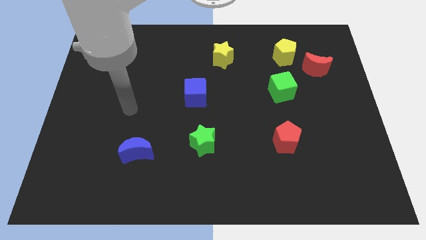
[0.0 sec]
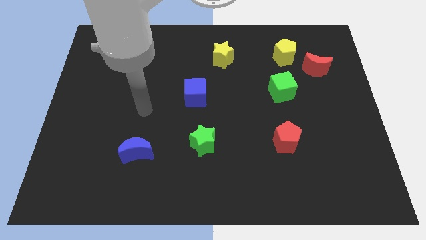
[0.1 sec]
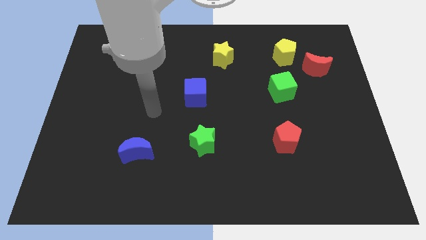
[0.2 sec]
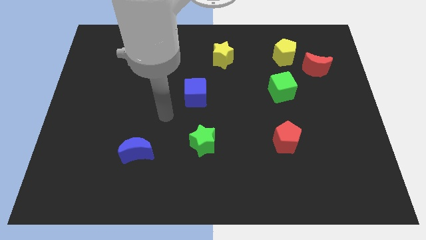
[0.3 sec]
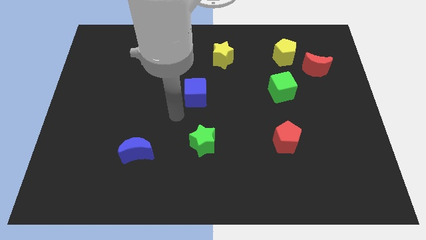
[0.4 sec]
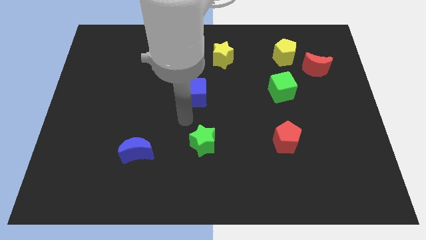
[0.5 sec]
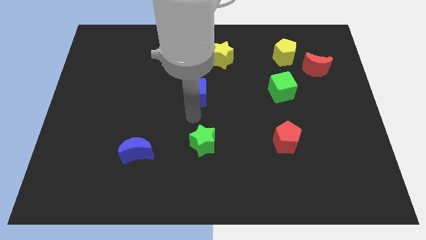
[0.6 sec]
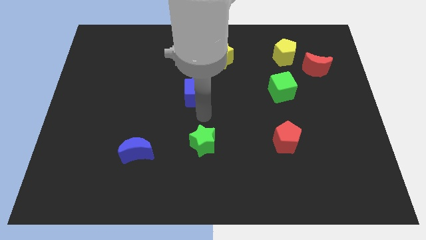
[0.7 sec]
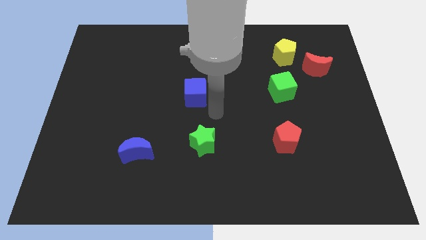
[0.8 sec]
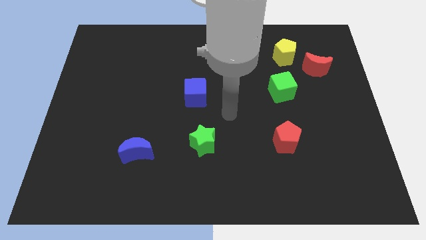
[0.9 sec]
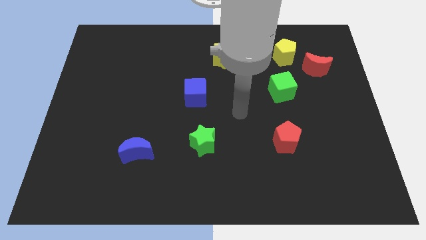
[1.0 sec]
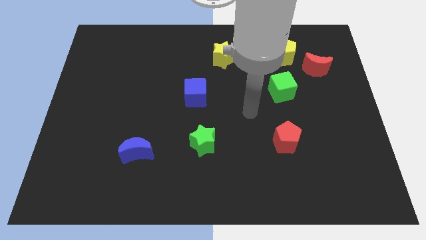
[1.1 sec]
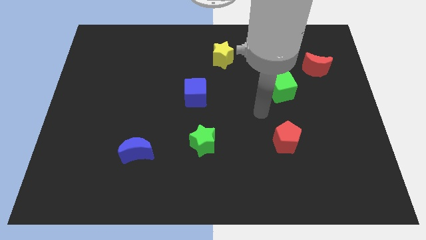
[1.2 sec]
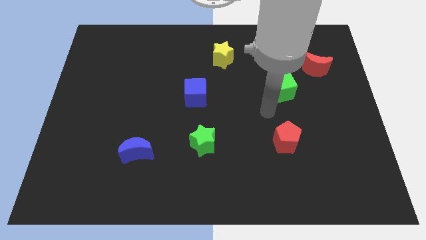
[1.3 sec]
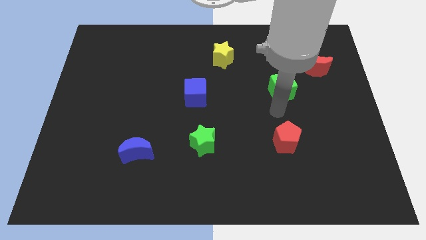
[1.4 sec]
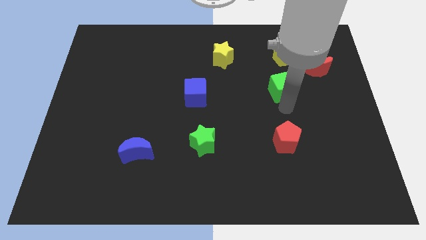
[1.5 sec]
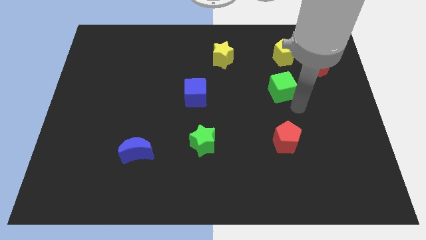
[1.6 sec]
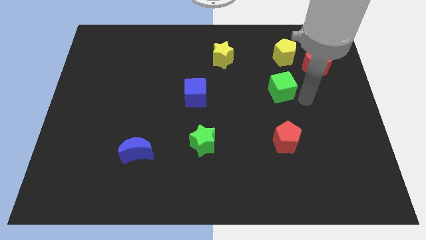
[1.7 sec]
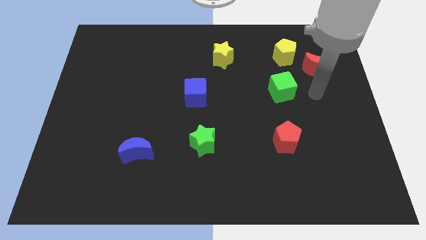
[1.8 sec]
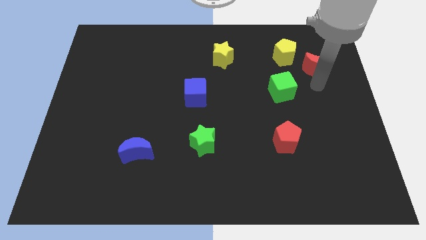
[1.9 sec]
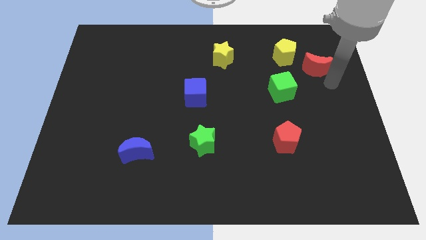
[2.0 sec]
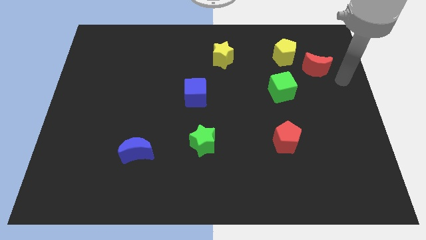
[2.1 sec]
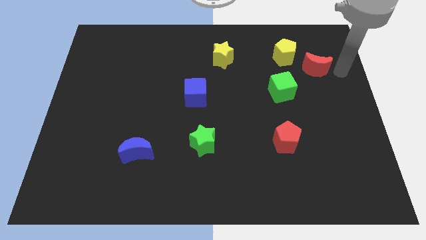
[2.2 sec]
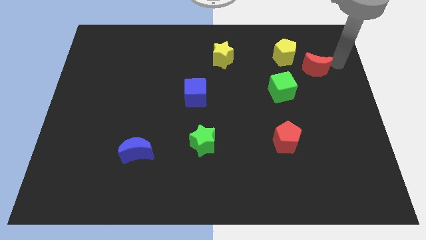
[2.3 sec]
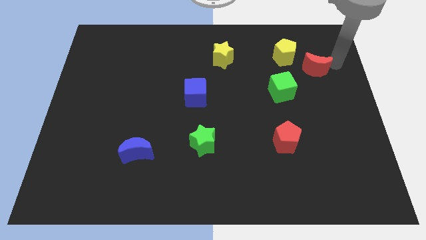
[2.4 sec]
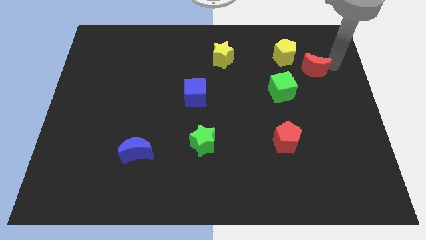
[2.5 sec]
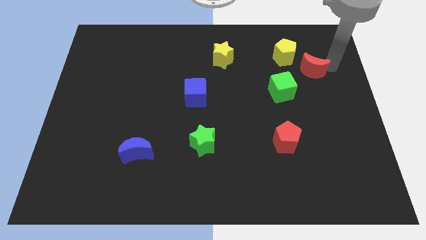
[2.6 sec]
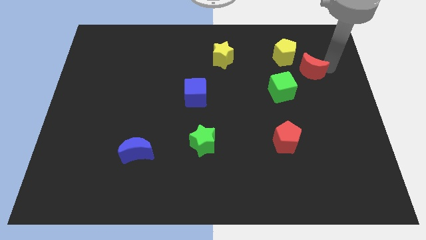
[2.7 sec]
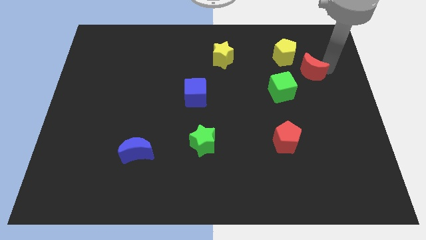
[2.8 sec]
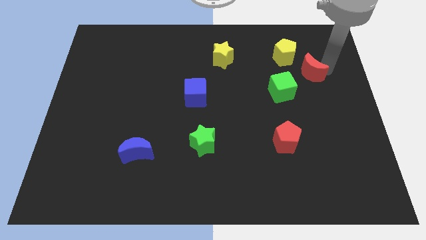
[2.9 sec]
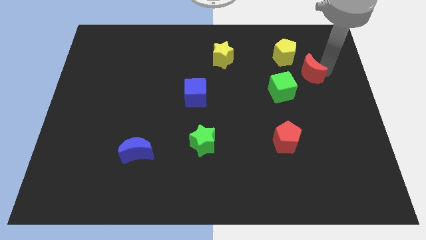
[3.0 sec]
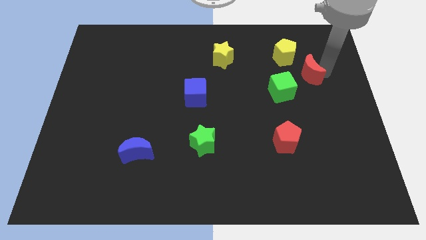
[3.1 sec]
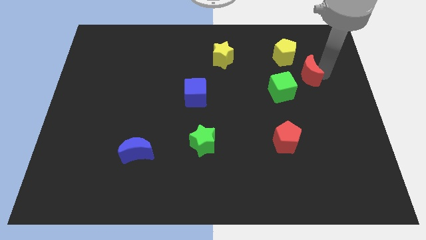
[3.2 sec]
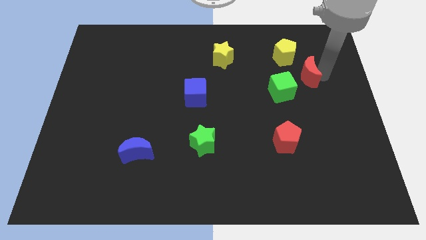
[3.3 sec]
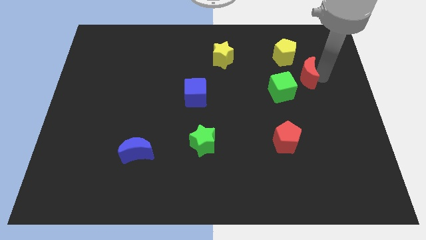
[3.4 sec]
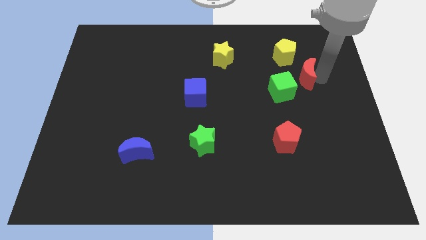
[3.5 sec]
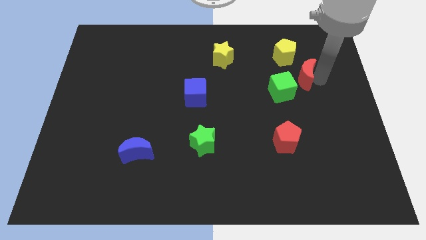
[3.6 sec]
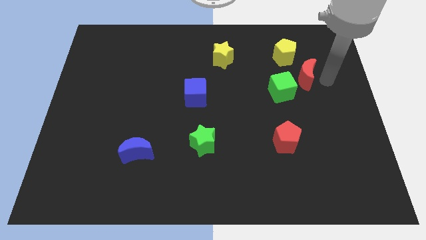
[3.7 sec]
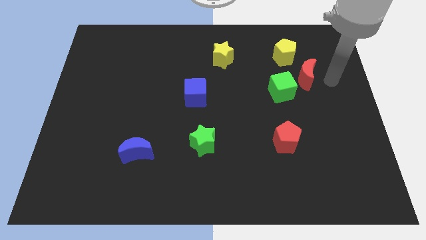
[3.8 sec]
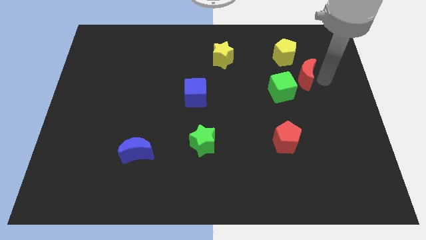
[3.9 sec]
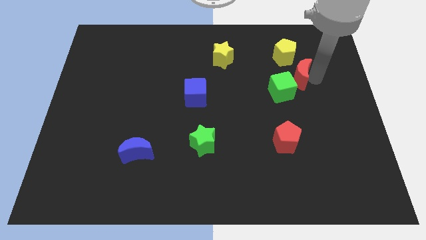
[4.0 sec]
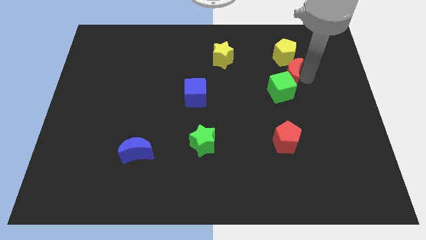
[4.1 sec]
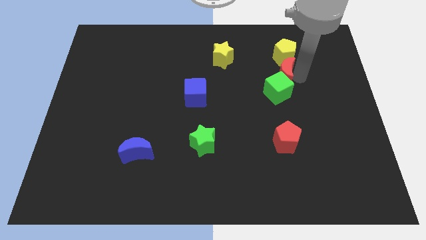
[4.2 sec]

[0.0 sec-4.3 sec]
slightly move the red moon left

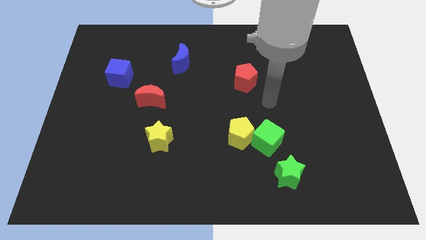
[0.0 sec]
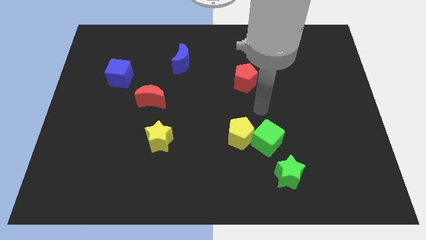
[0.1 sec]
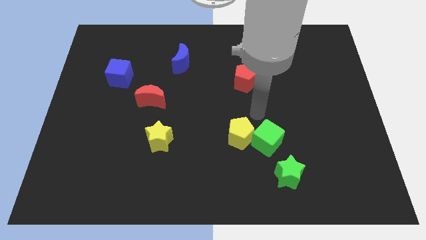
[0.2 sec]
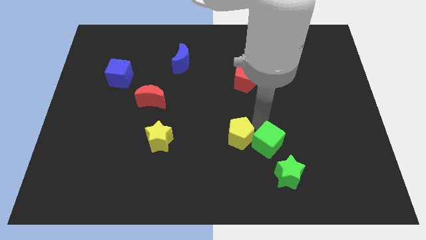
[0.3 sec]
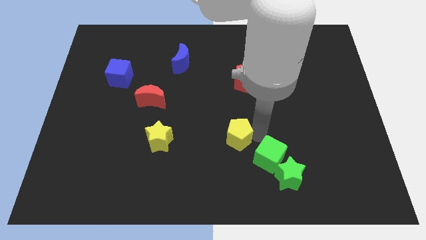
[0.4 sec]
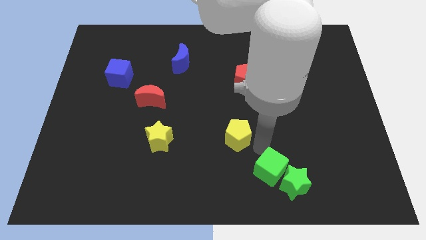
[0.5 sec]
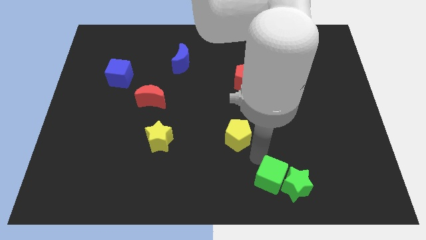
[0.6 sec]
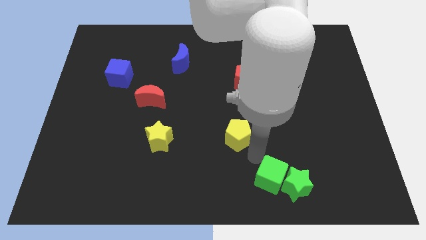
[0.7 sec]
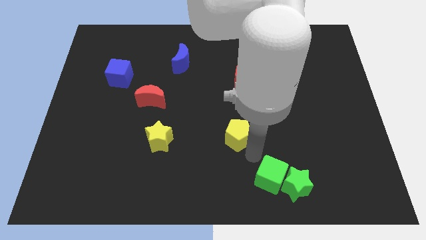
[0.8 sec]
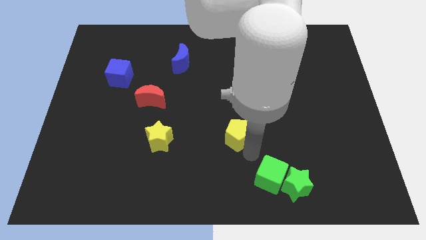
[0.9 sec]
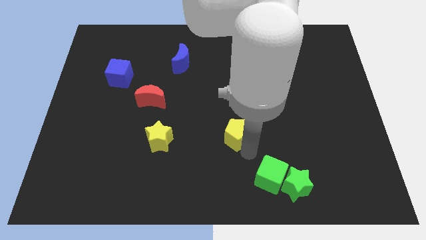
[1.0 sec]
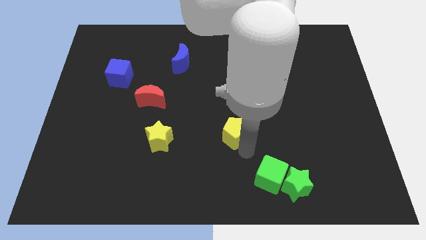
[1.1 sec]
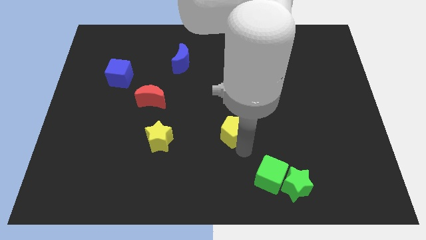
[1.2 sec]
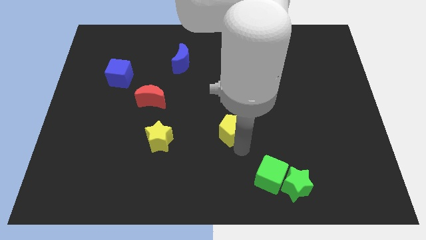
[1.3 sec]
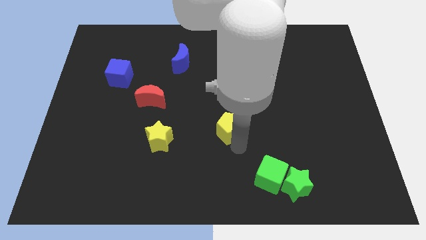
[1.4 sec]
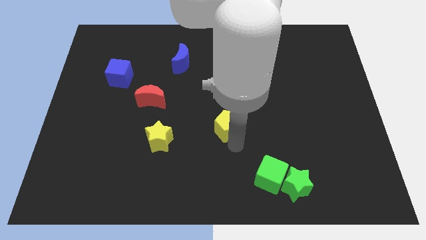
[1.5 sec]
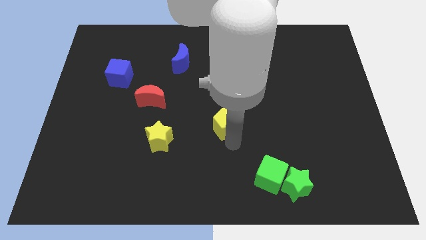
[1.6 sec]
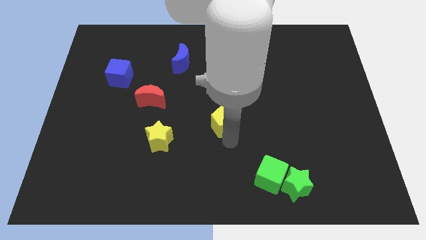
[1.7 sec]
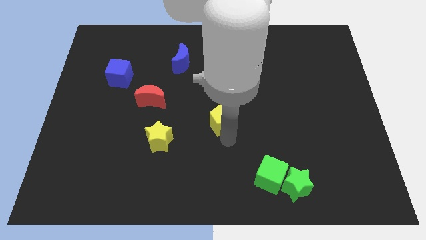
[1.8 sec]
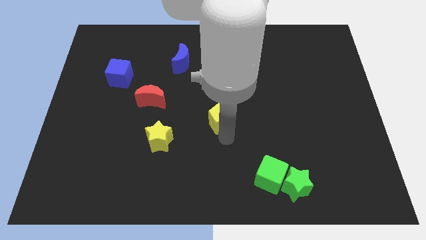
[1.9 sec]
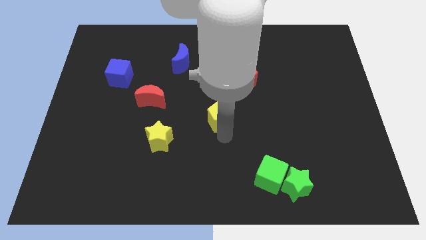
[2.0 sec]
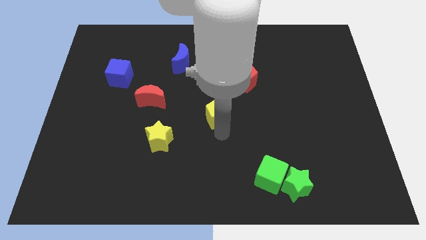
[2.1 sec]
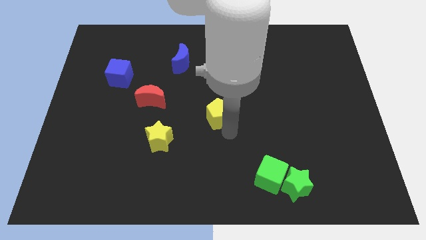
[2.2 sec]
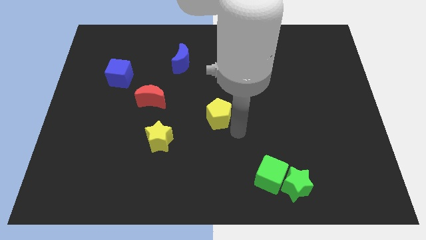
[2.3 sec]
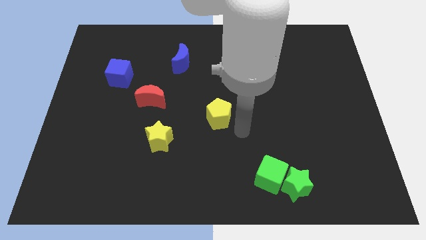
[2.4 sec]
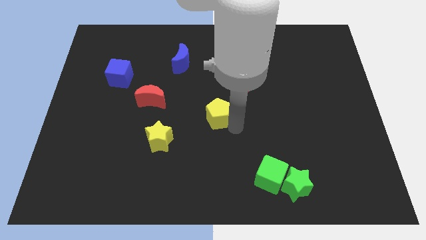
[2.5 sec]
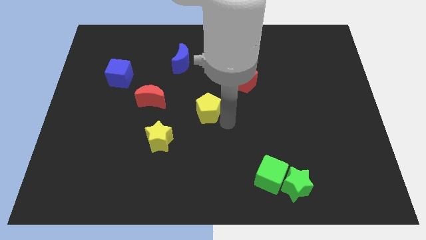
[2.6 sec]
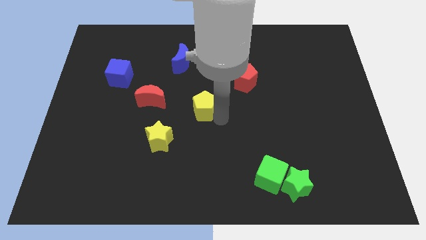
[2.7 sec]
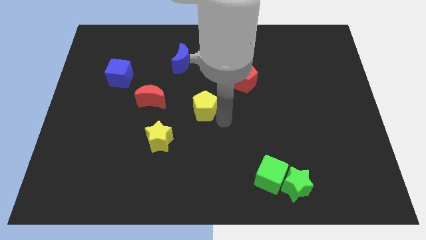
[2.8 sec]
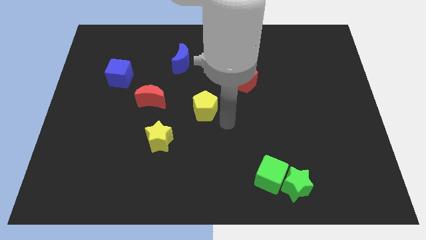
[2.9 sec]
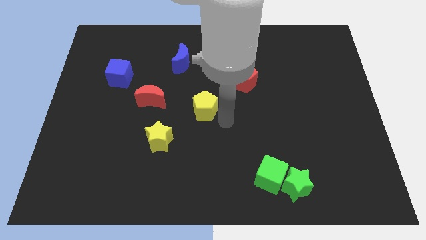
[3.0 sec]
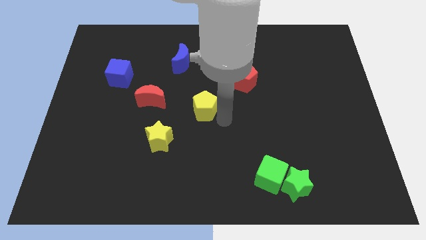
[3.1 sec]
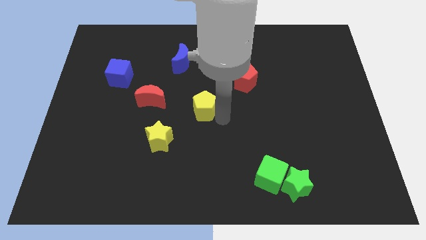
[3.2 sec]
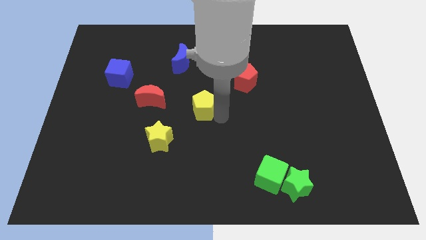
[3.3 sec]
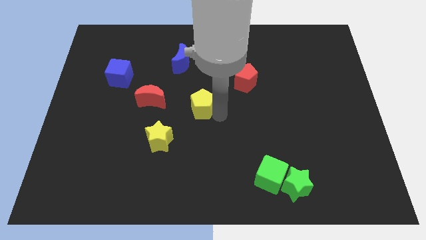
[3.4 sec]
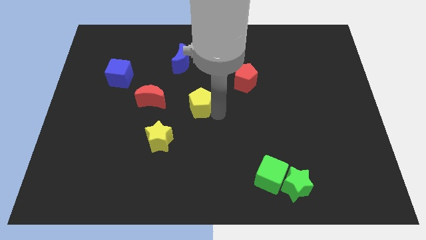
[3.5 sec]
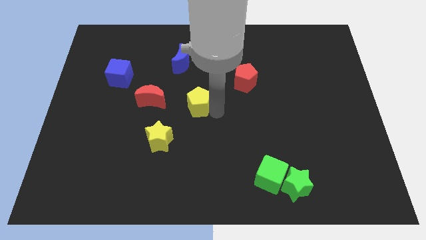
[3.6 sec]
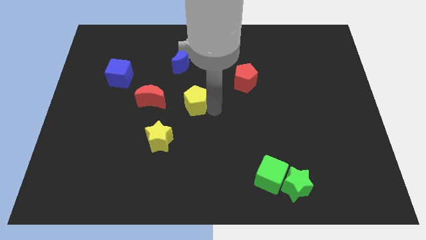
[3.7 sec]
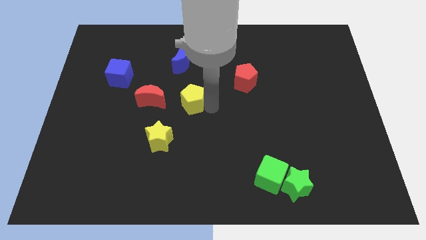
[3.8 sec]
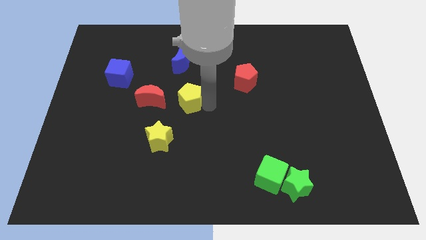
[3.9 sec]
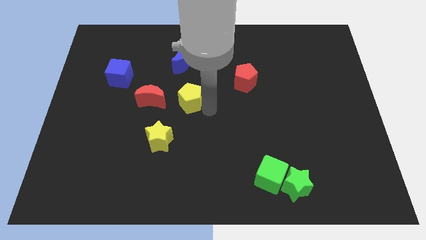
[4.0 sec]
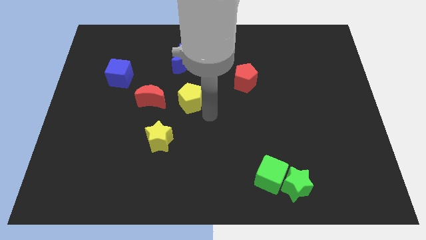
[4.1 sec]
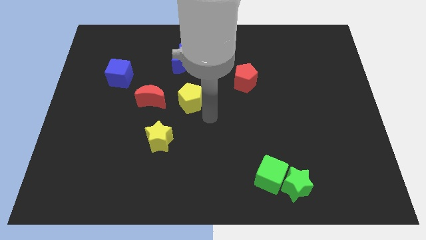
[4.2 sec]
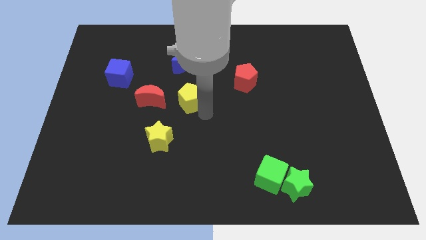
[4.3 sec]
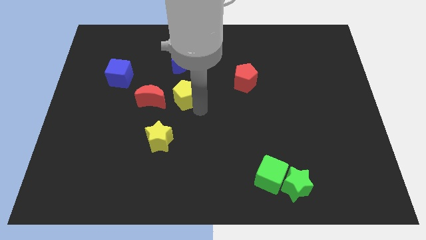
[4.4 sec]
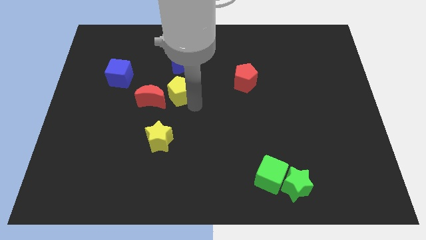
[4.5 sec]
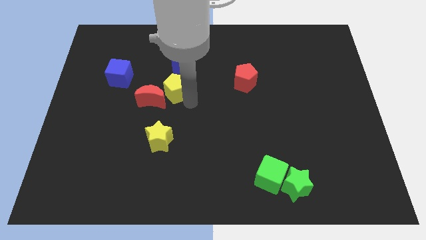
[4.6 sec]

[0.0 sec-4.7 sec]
push the yellow pentagon upwards and then left
